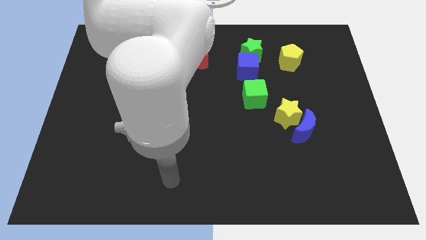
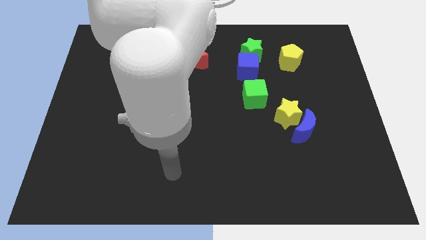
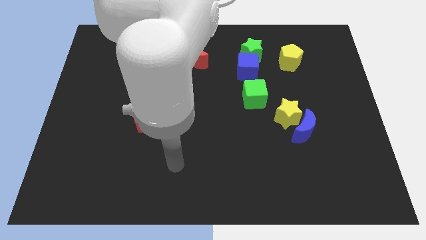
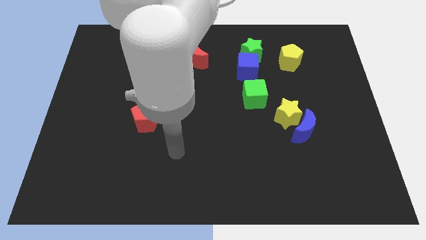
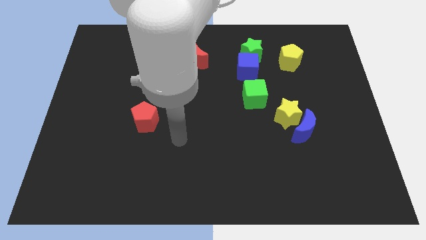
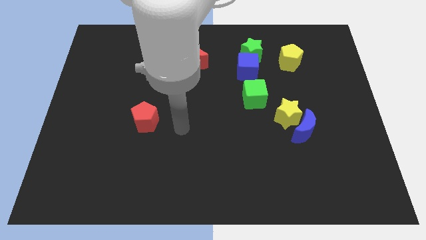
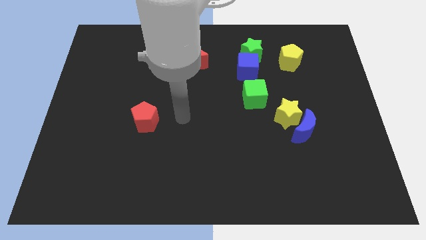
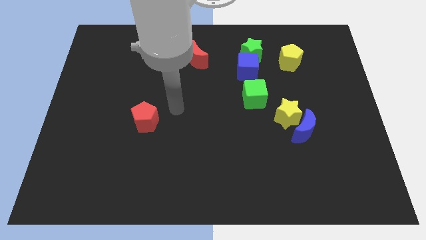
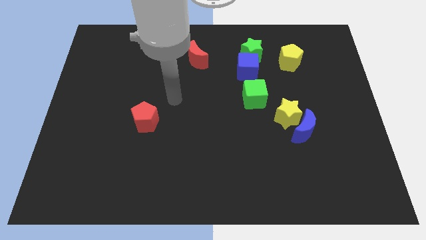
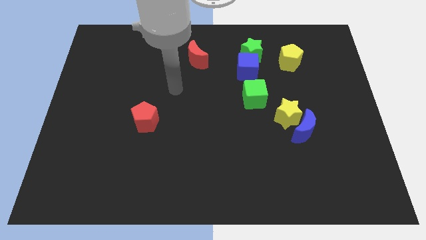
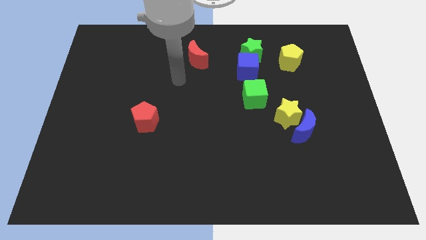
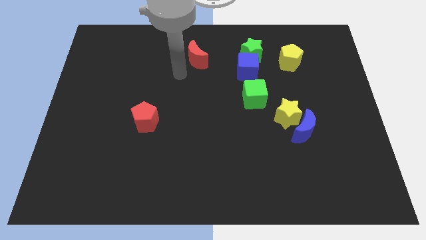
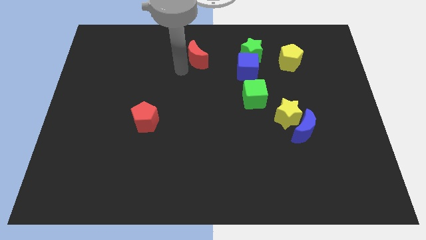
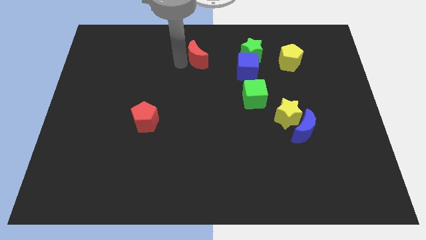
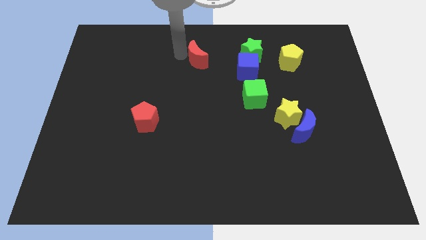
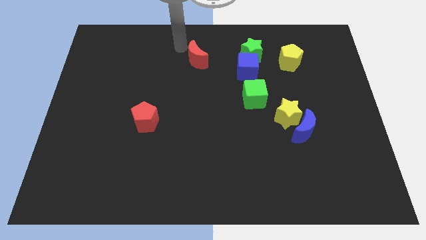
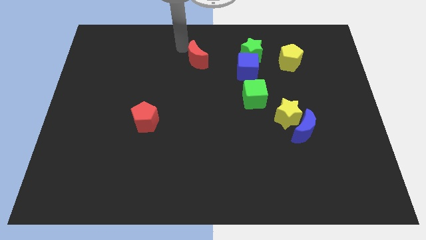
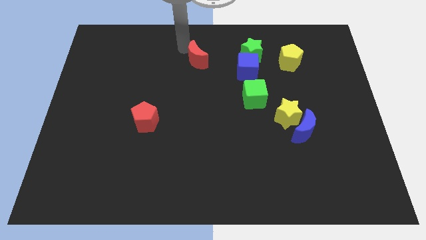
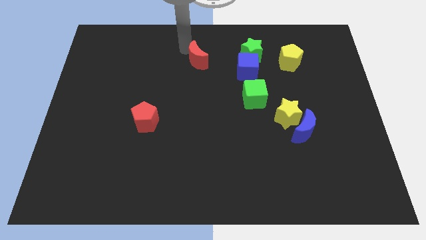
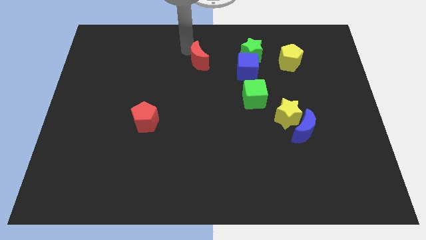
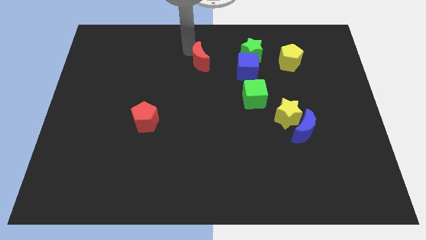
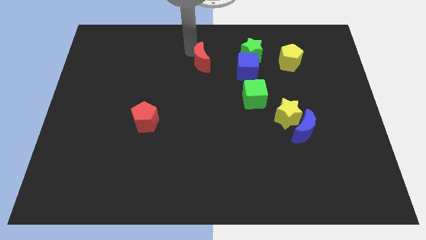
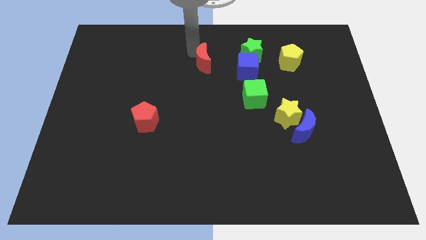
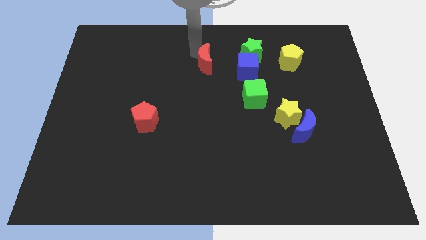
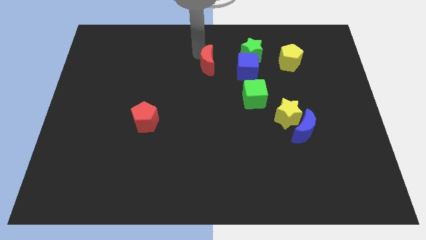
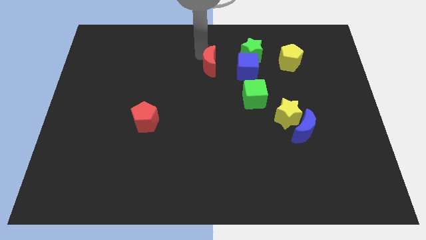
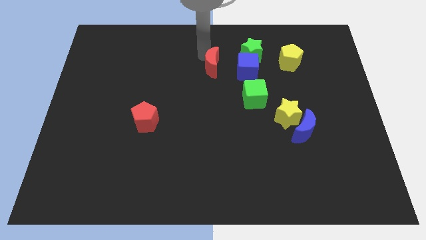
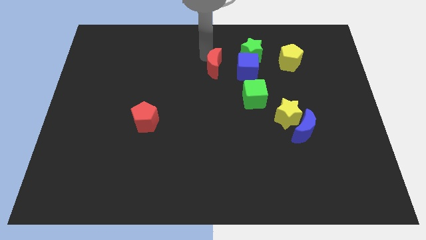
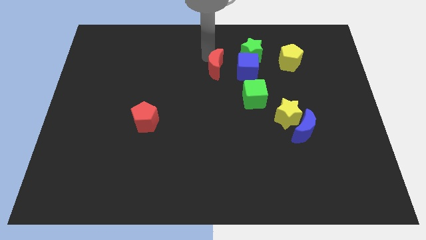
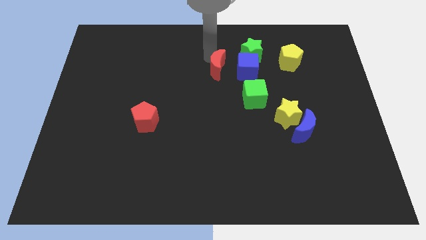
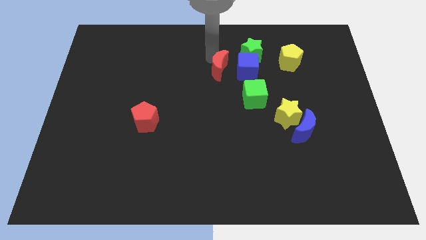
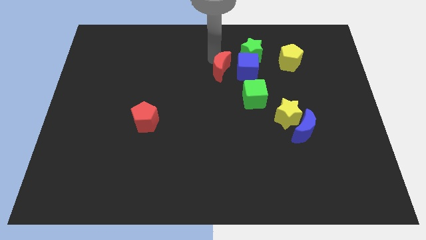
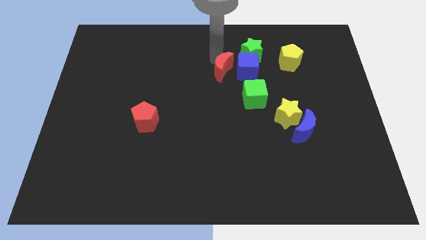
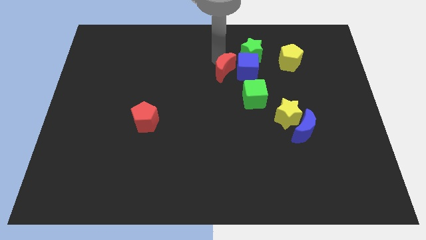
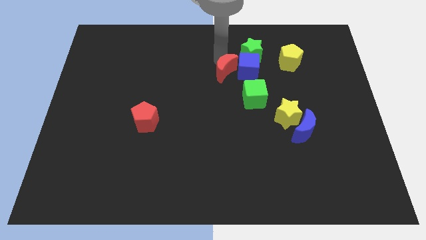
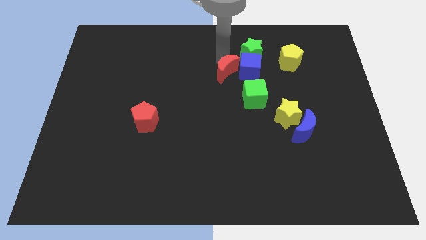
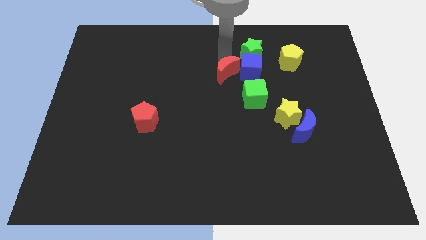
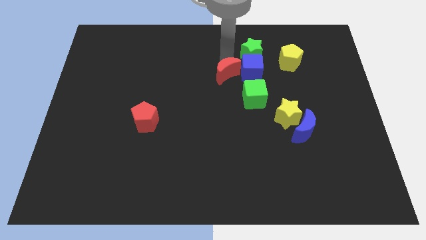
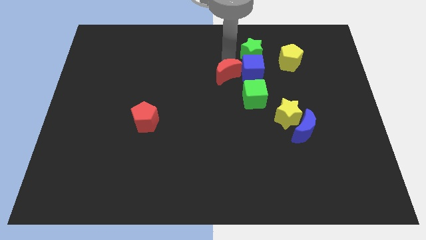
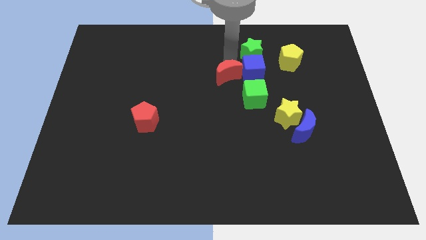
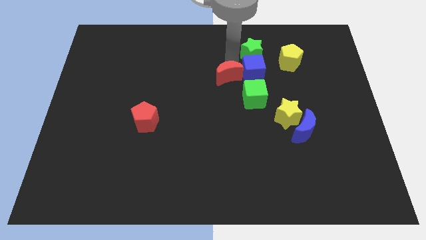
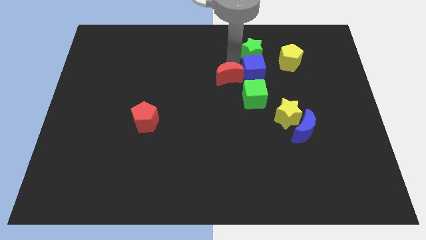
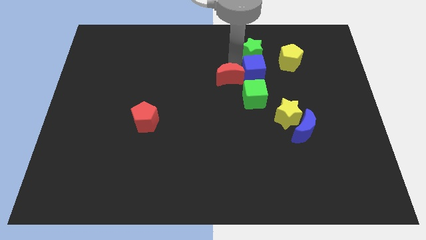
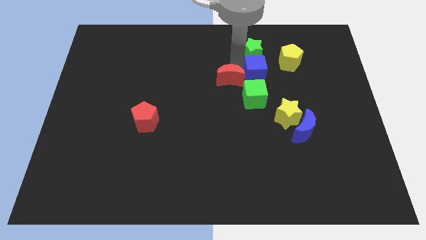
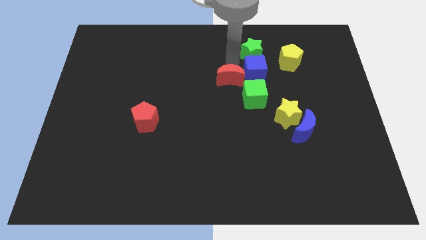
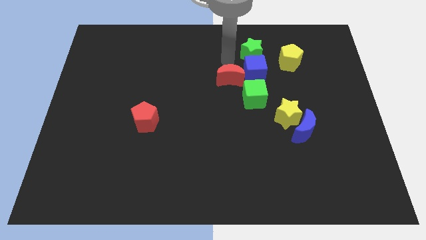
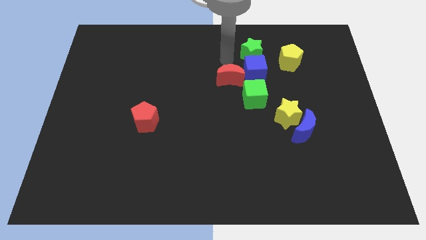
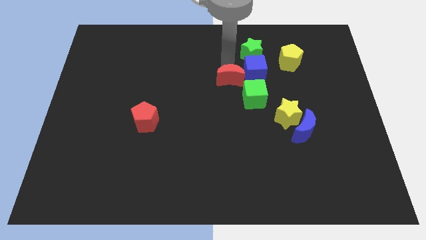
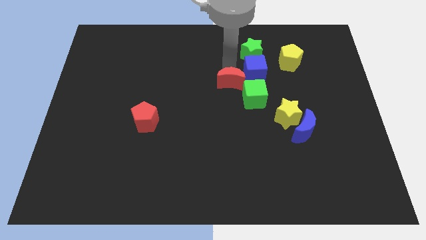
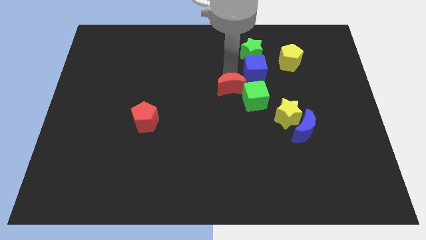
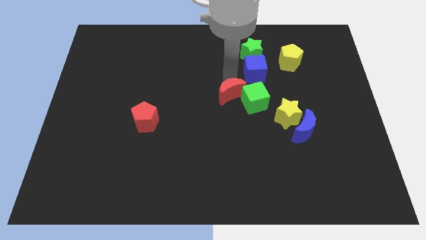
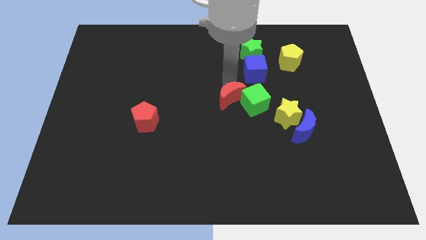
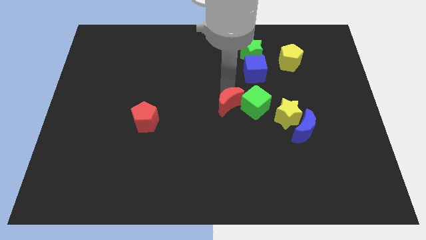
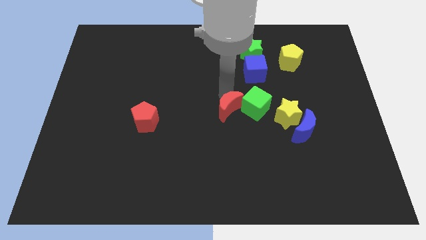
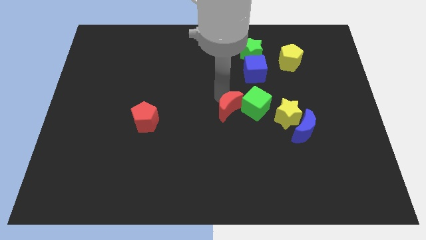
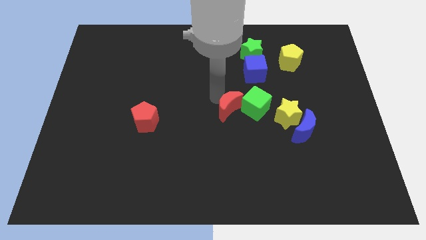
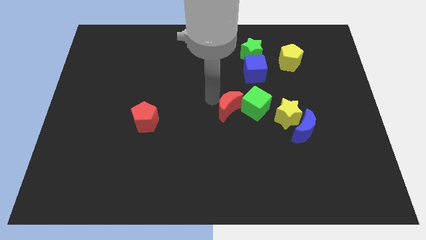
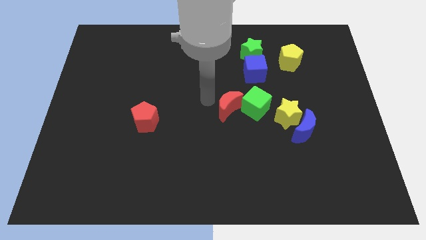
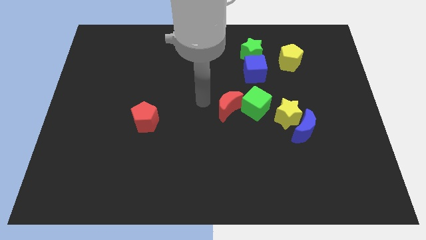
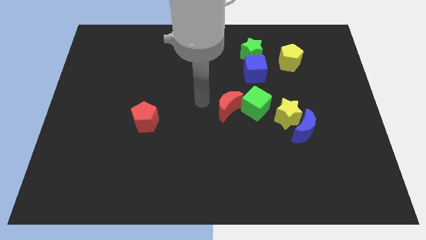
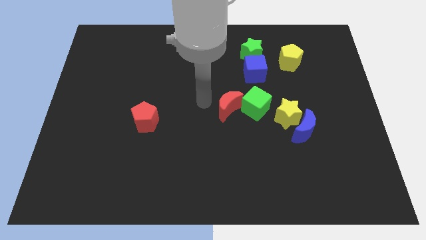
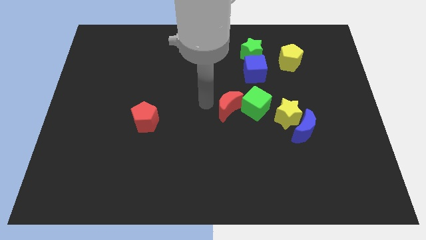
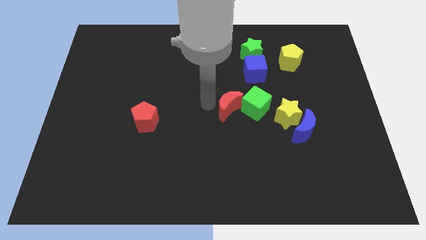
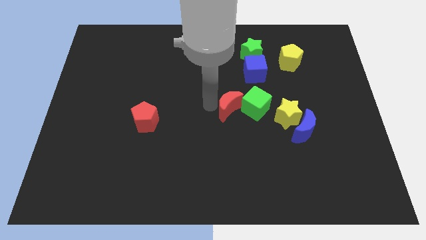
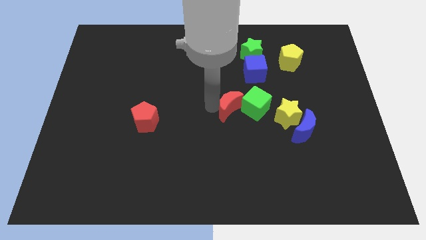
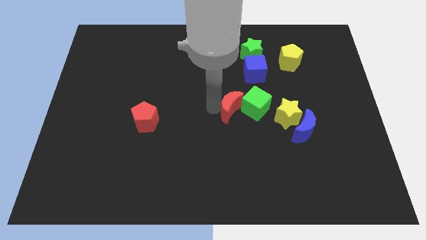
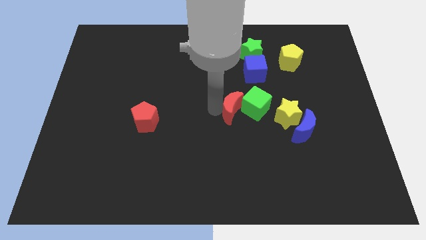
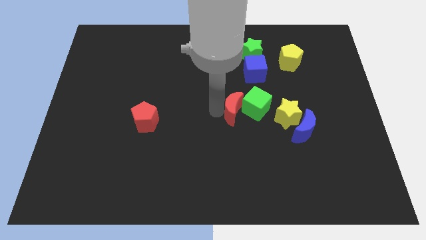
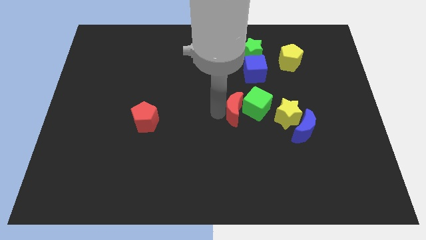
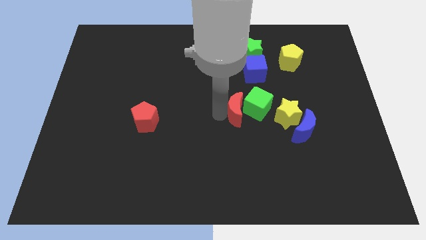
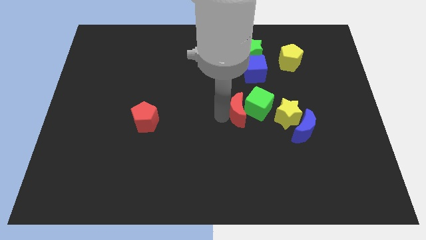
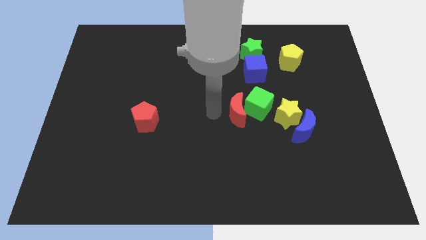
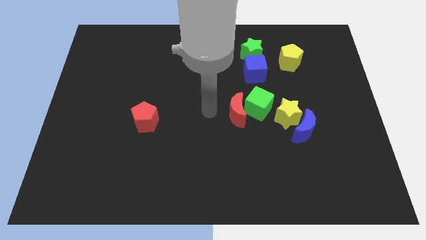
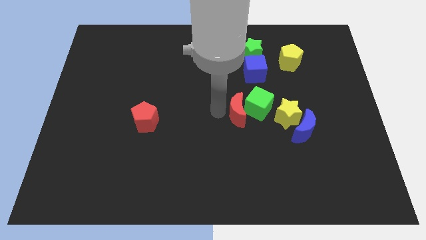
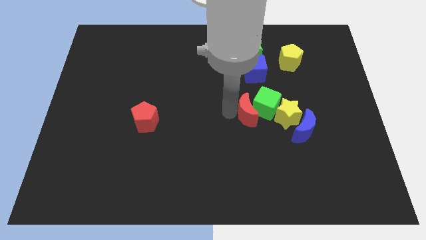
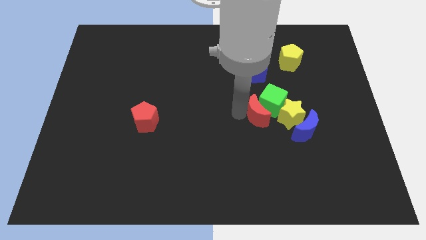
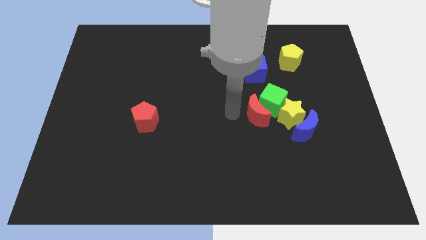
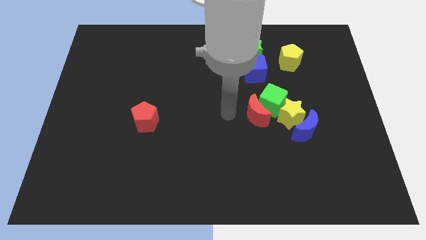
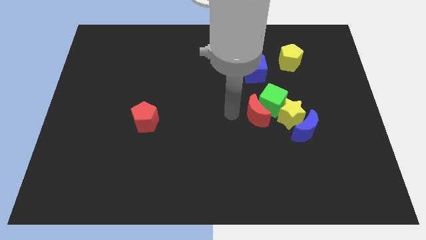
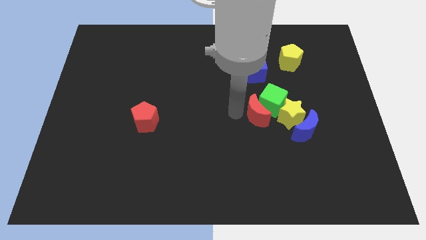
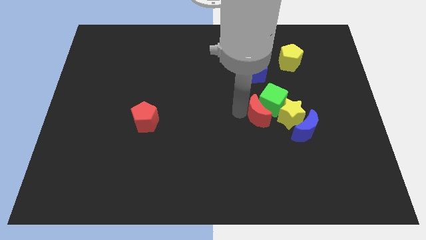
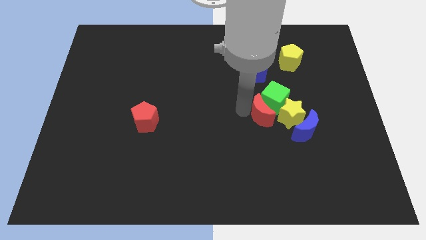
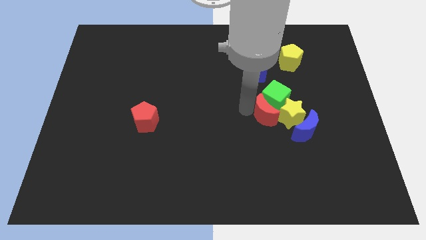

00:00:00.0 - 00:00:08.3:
slide the red moon towards the yellow star
